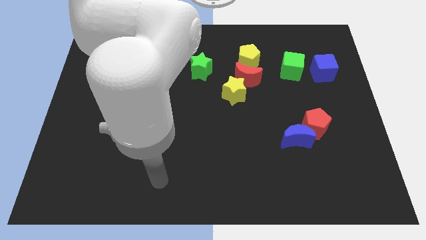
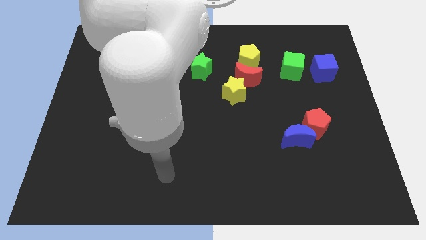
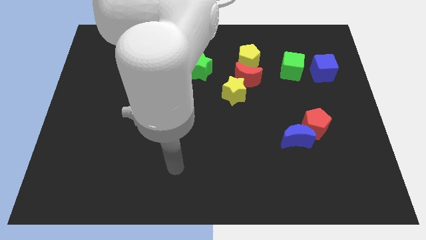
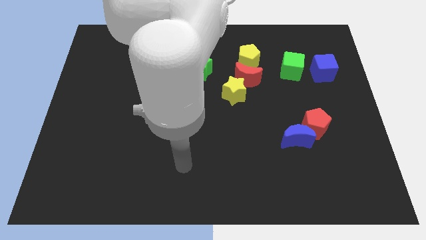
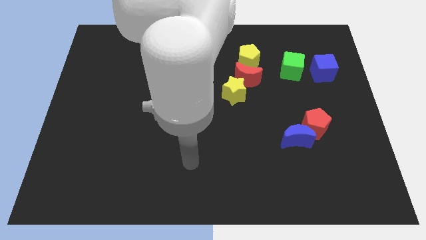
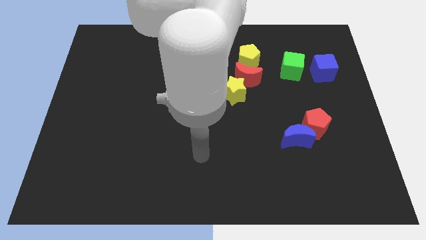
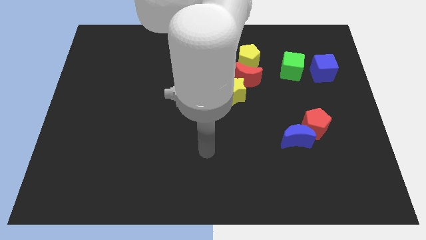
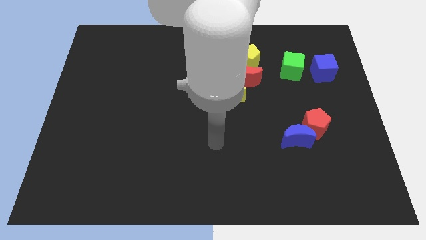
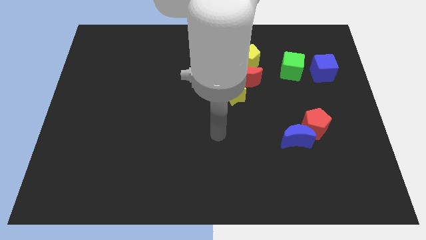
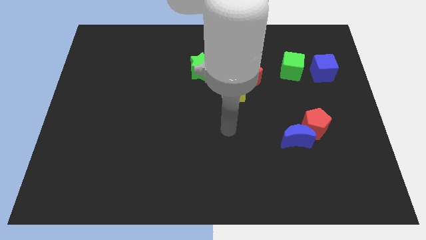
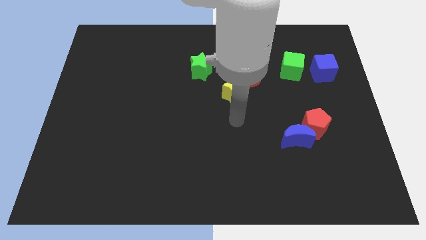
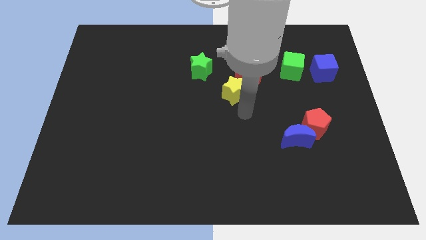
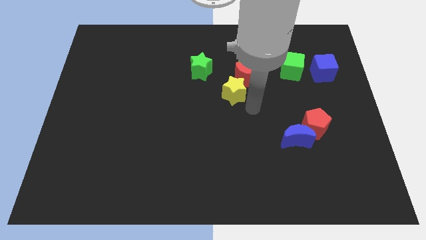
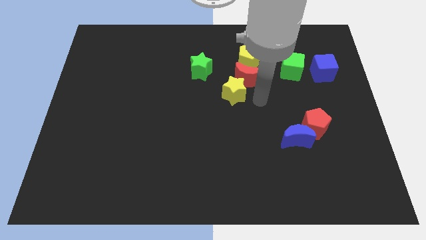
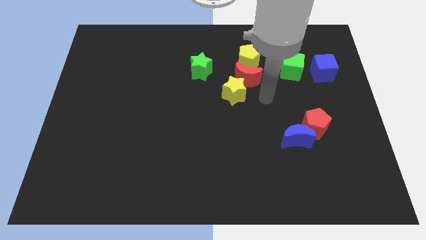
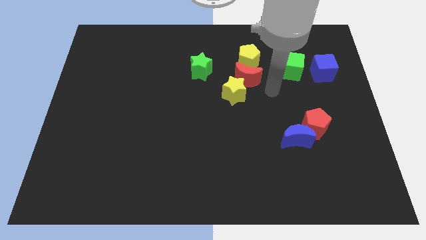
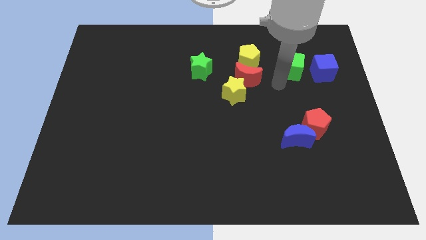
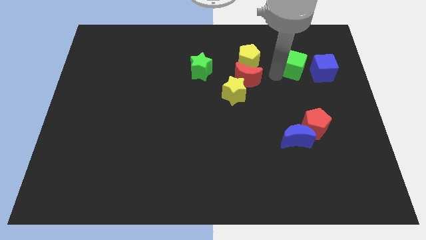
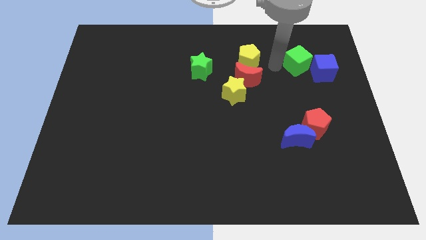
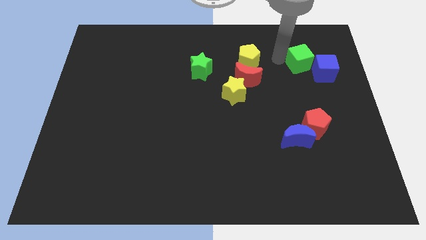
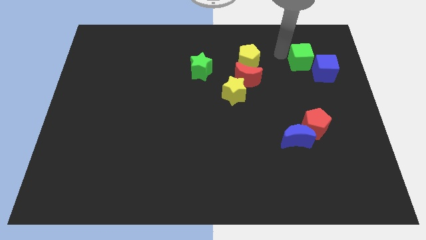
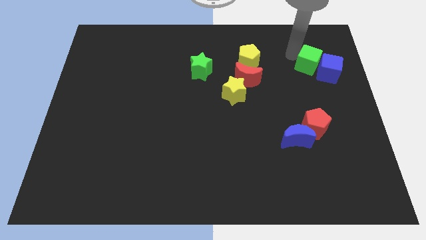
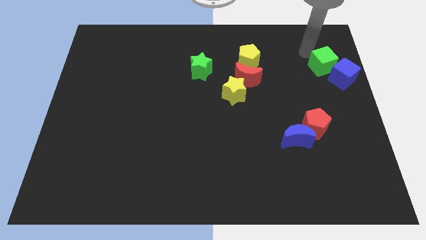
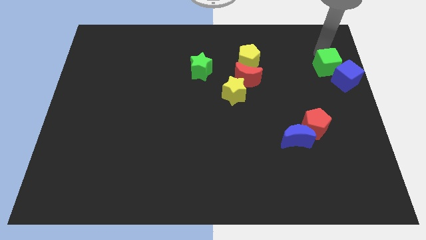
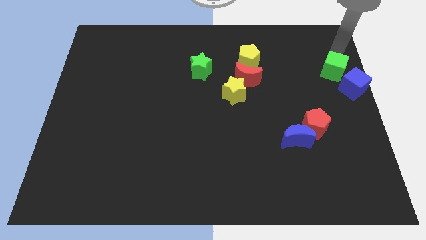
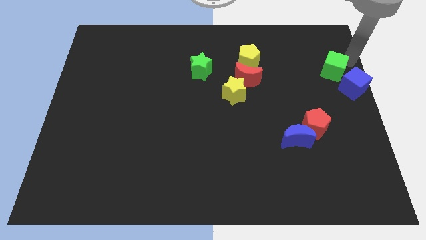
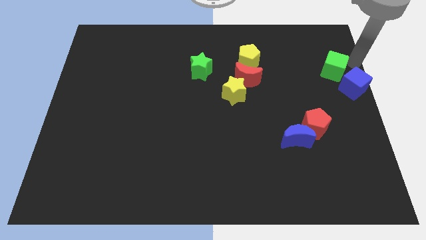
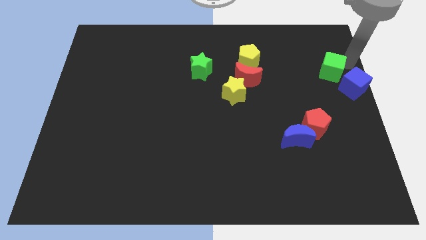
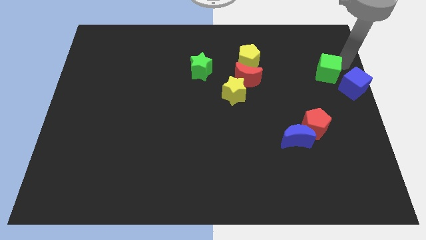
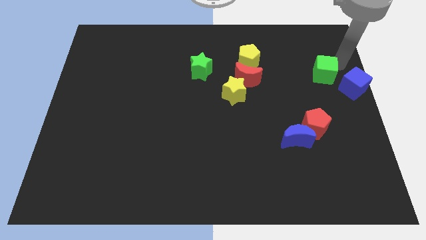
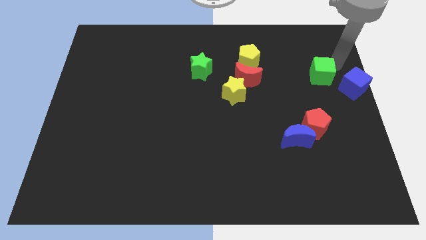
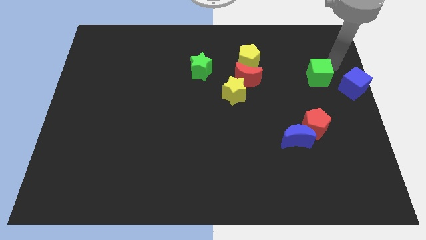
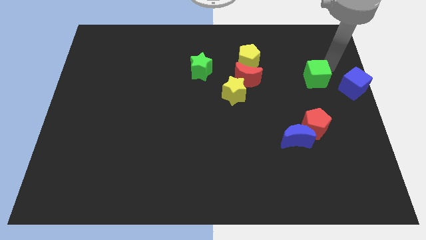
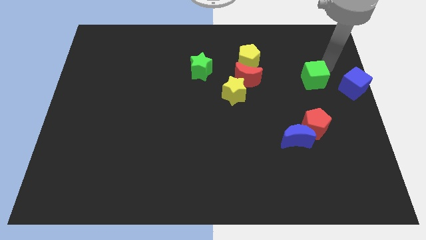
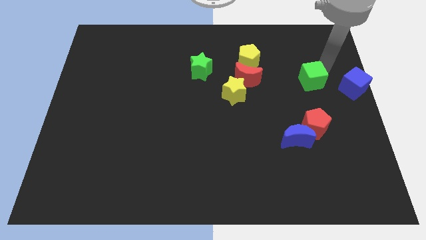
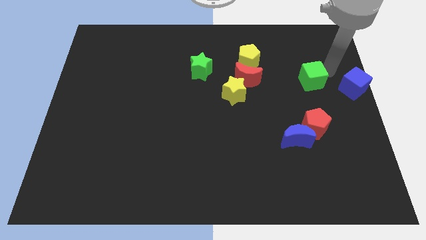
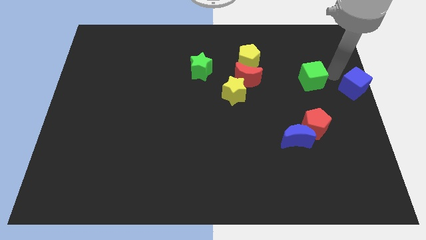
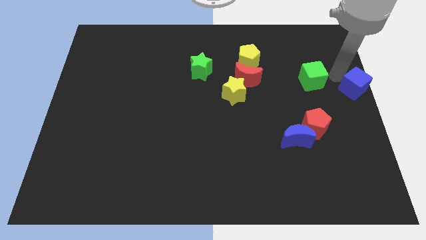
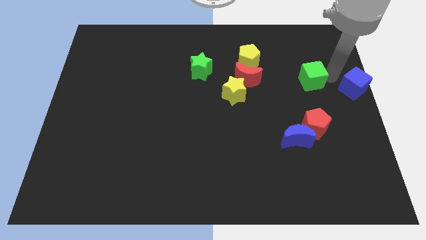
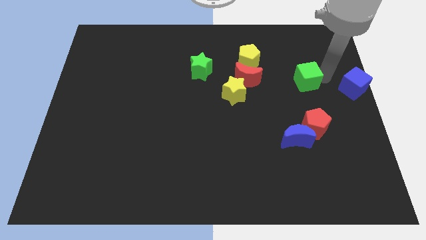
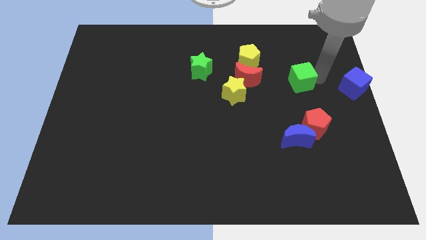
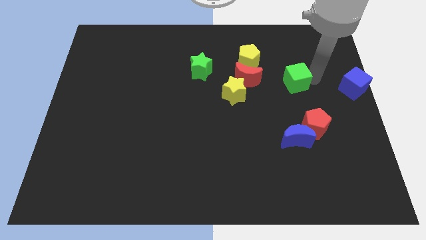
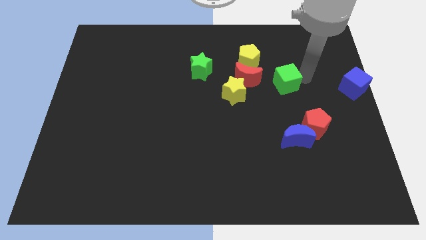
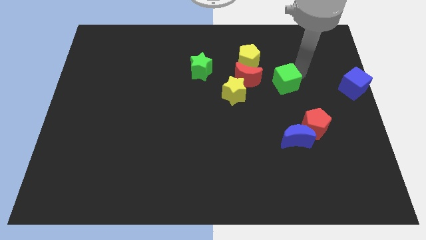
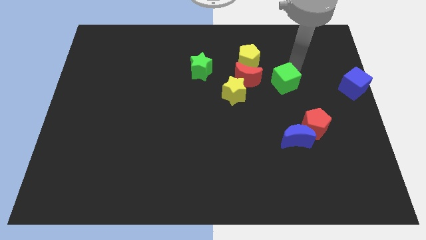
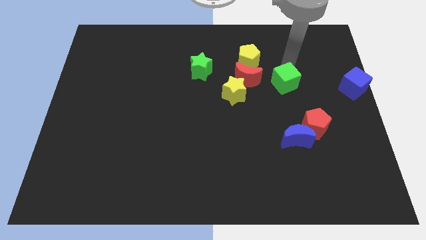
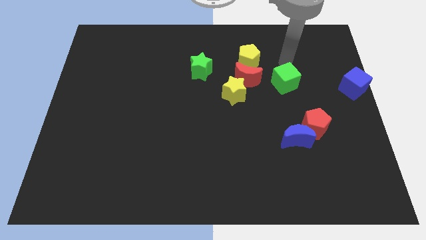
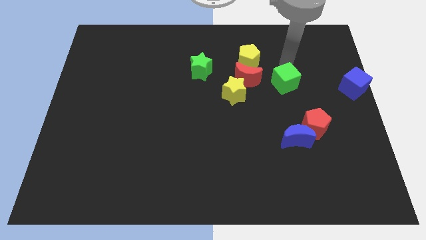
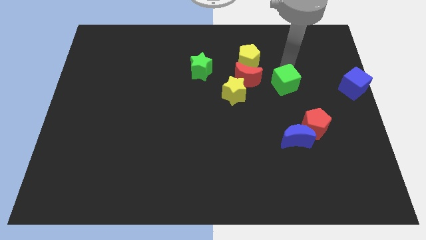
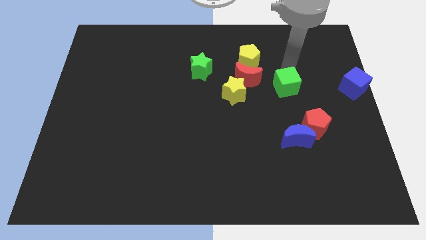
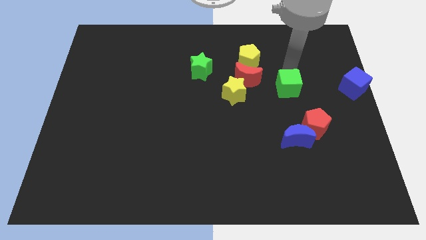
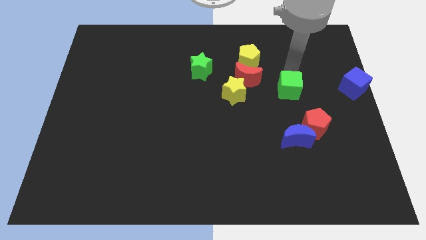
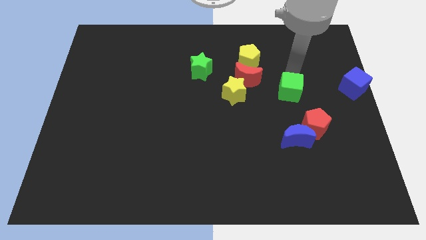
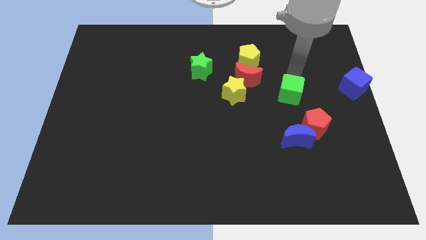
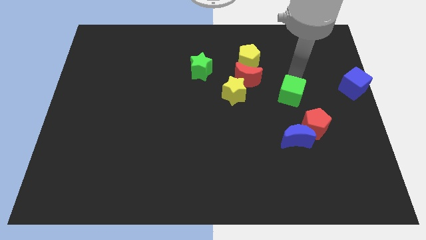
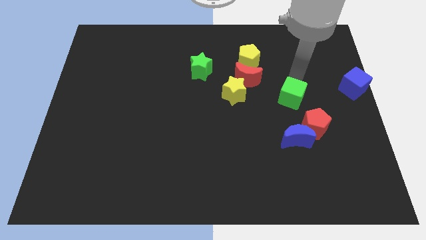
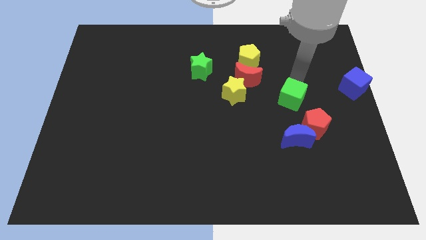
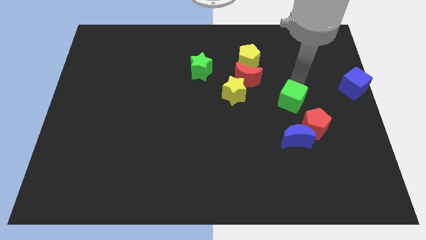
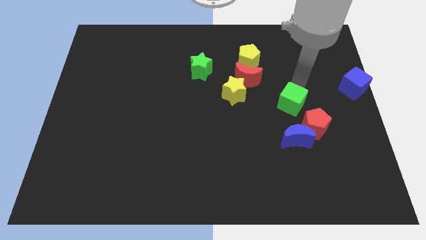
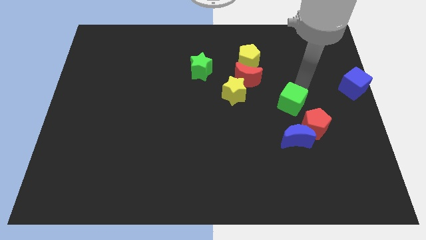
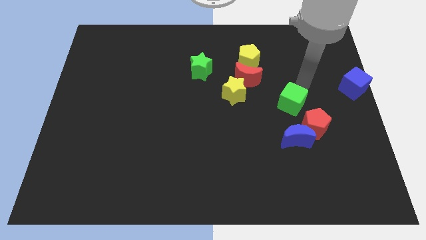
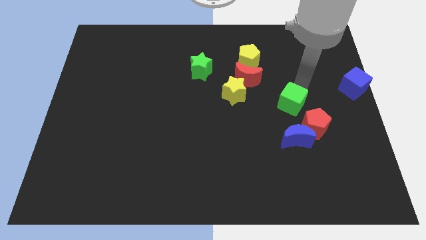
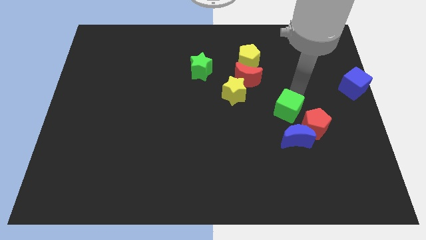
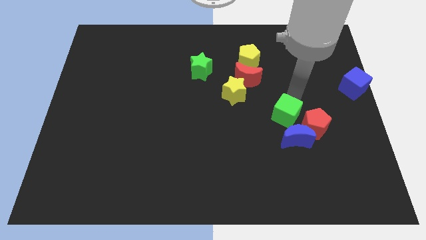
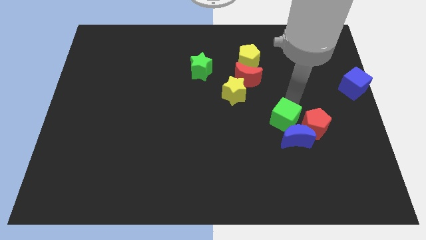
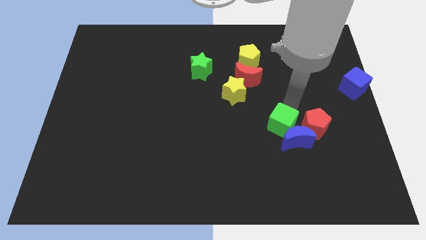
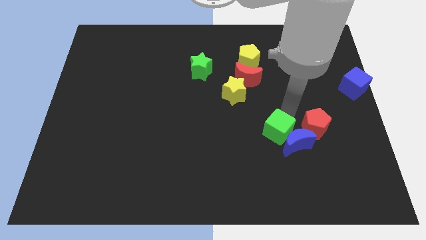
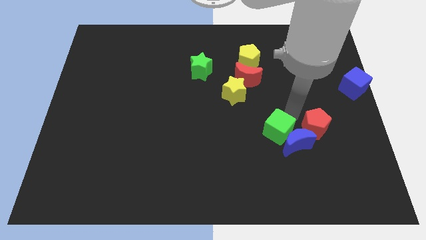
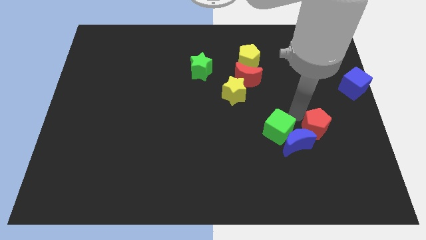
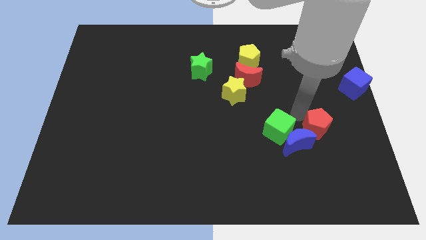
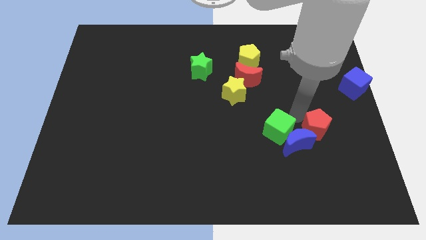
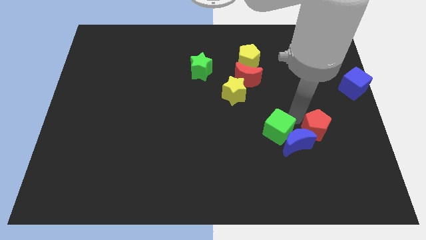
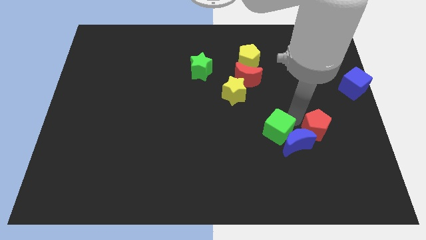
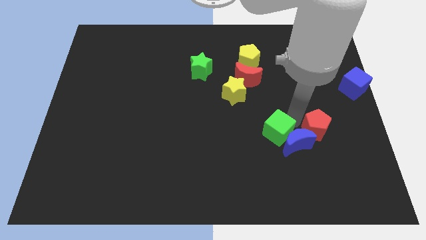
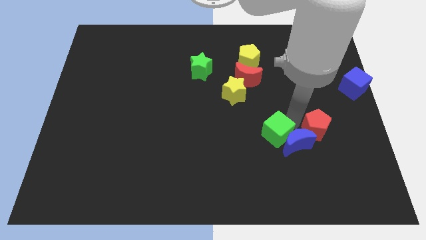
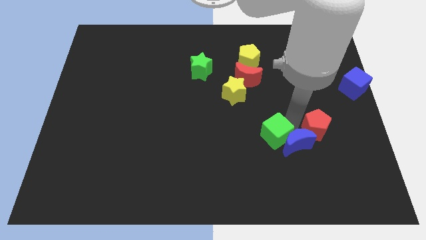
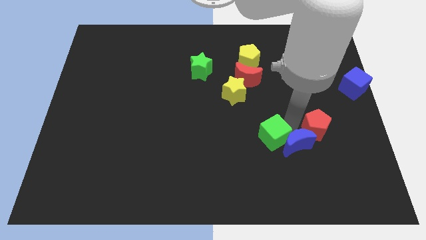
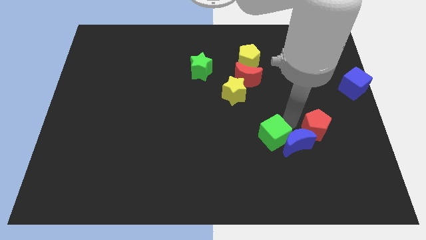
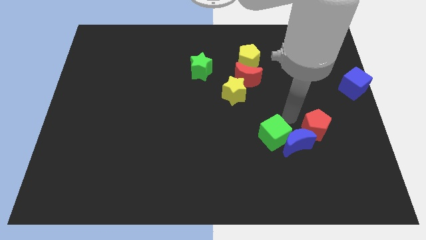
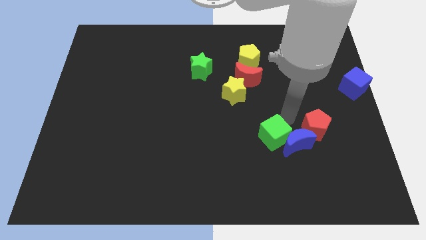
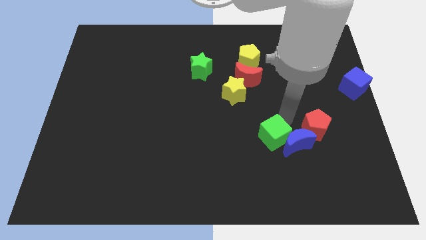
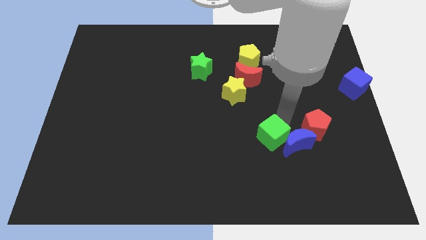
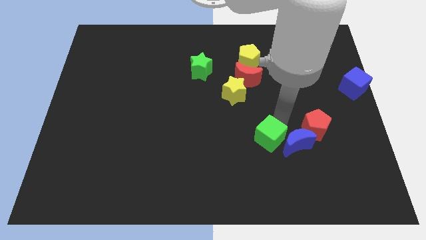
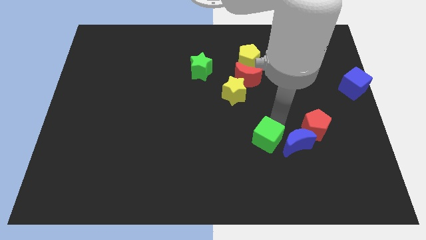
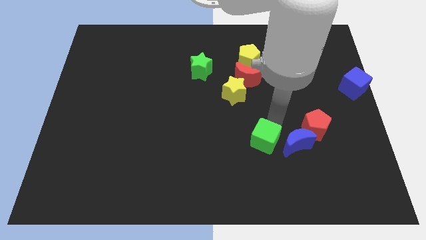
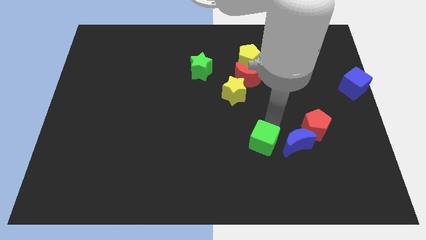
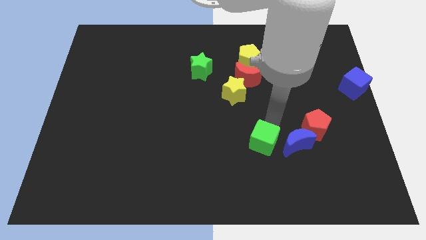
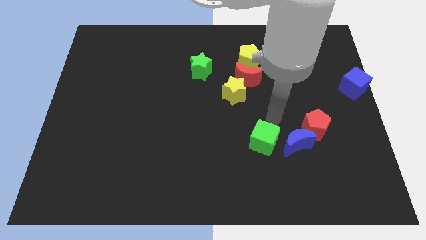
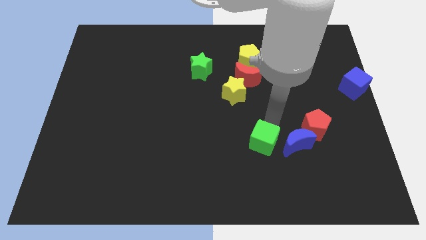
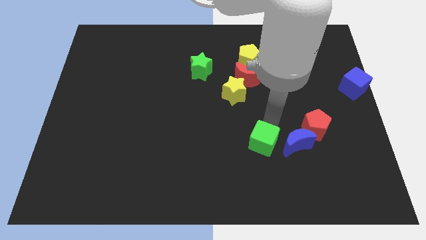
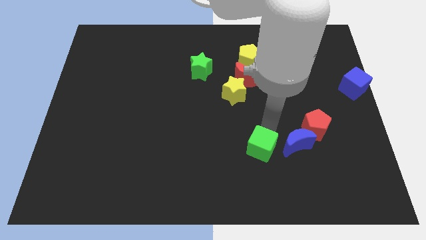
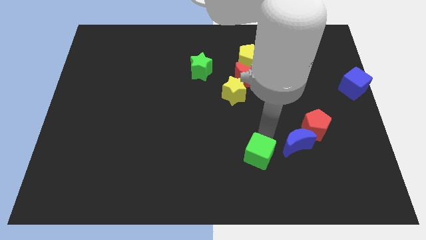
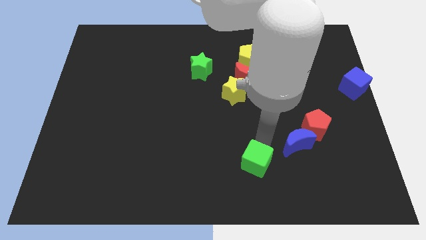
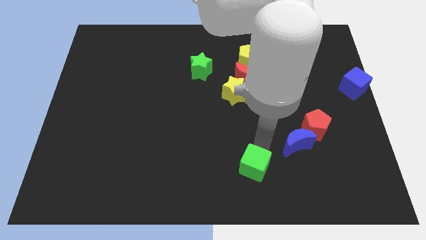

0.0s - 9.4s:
push the green cube to the bottom
